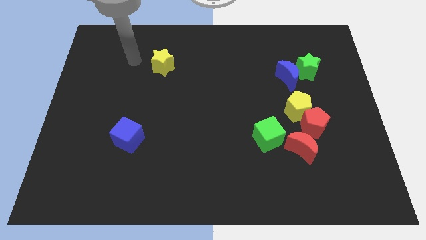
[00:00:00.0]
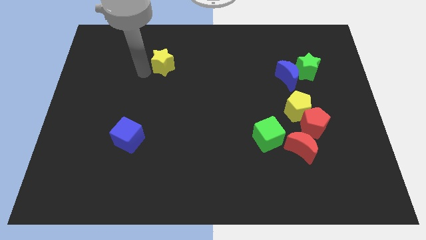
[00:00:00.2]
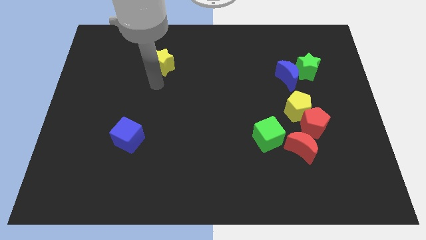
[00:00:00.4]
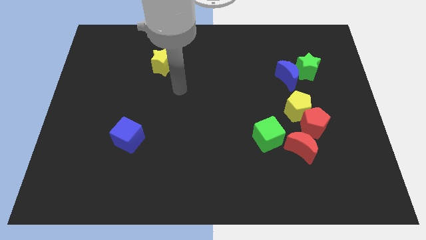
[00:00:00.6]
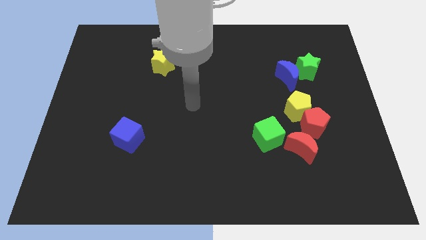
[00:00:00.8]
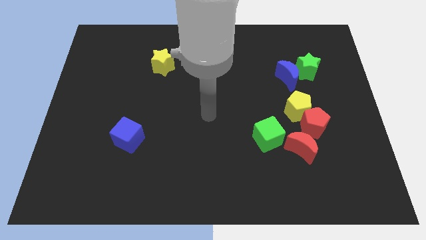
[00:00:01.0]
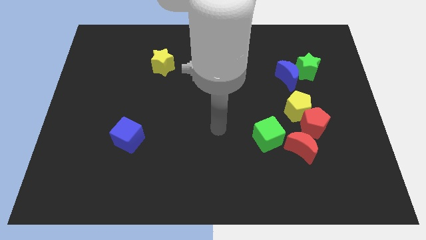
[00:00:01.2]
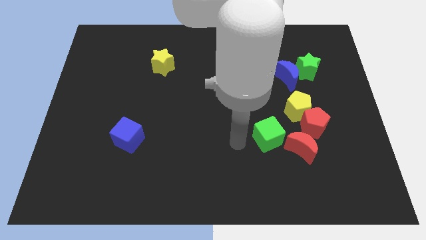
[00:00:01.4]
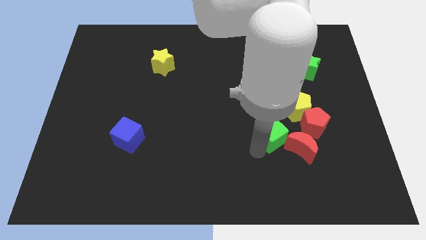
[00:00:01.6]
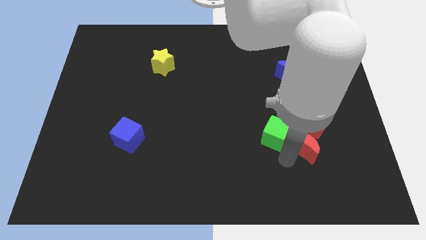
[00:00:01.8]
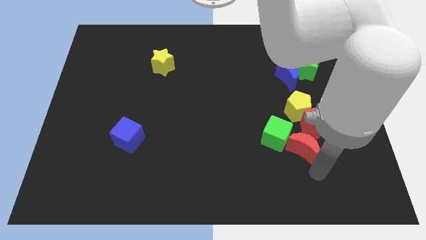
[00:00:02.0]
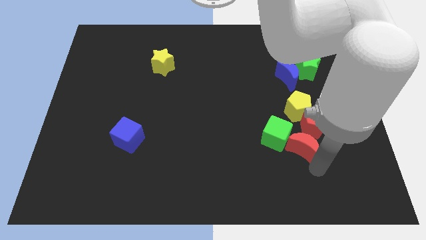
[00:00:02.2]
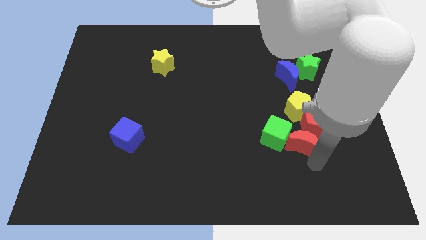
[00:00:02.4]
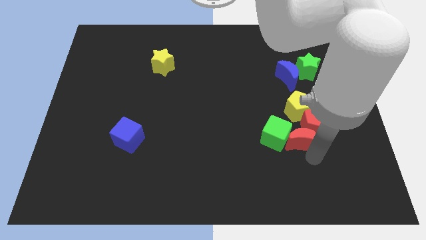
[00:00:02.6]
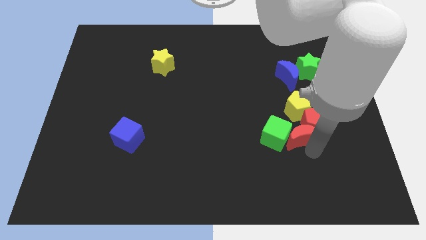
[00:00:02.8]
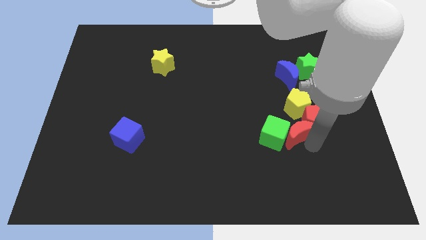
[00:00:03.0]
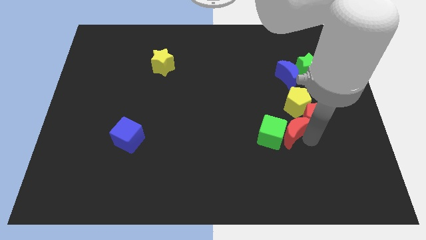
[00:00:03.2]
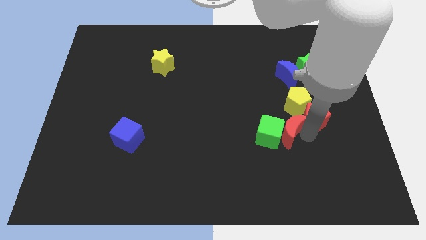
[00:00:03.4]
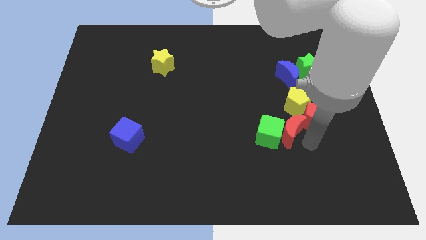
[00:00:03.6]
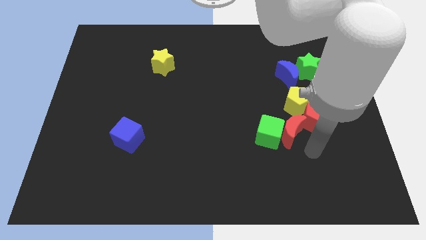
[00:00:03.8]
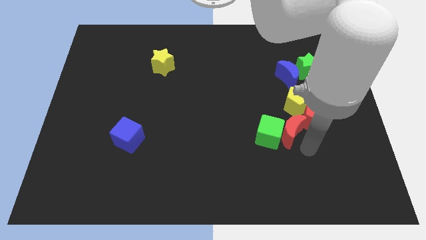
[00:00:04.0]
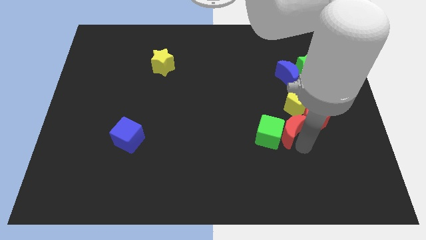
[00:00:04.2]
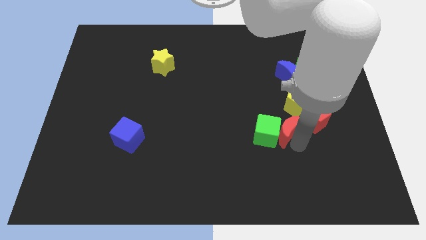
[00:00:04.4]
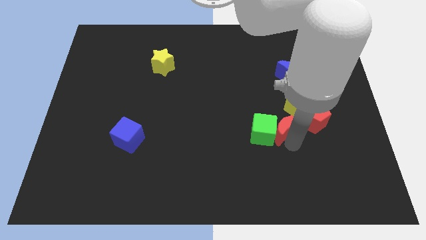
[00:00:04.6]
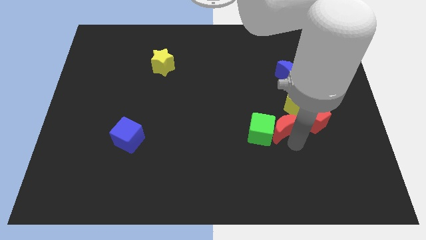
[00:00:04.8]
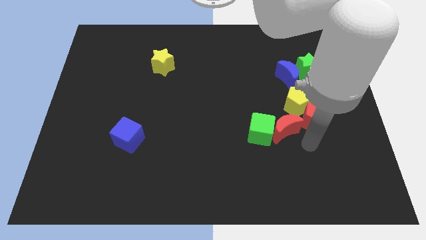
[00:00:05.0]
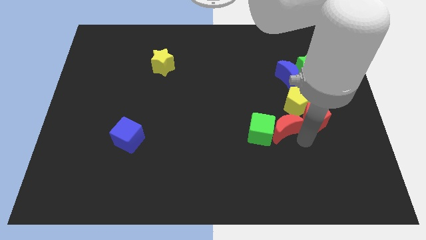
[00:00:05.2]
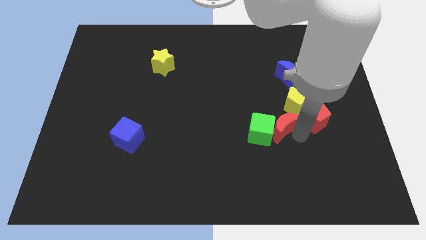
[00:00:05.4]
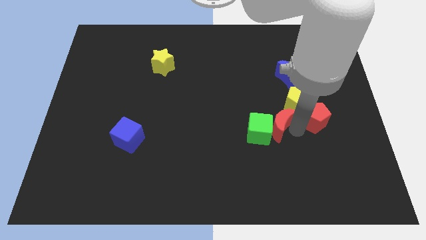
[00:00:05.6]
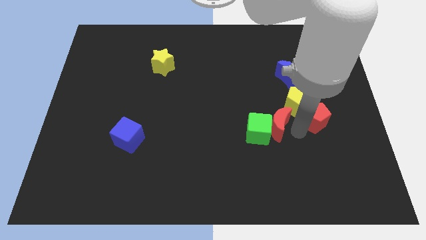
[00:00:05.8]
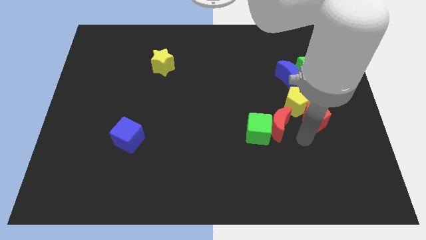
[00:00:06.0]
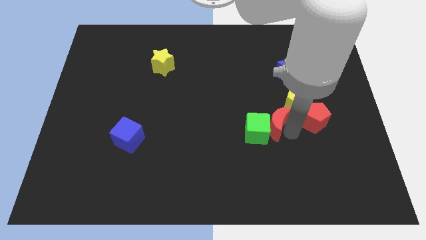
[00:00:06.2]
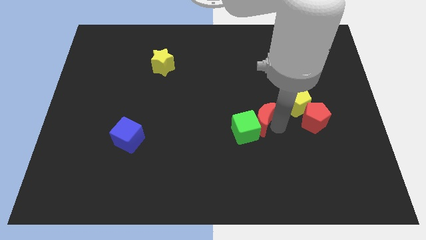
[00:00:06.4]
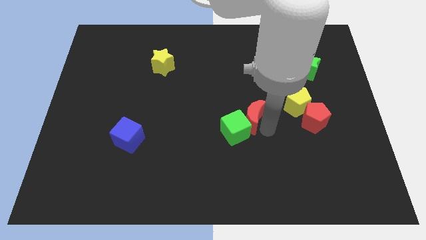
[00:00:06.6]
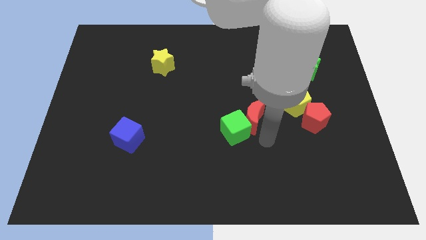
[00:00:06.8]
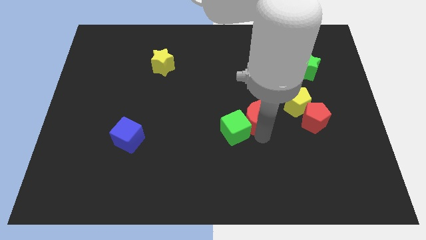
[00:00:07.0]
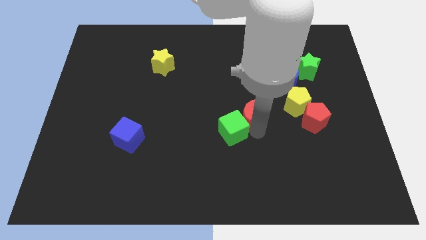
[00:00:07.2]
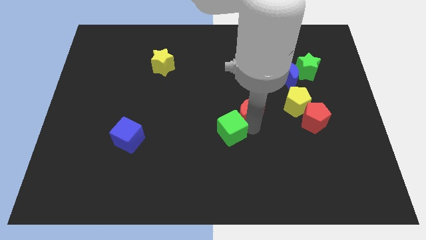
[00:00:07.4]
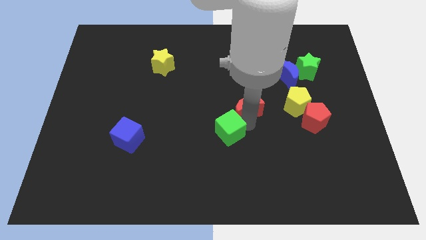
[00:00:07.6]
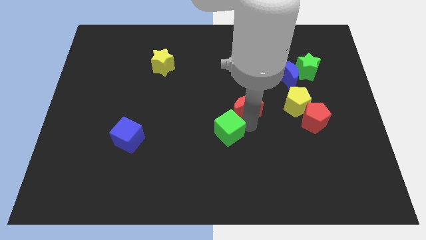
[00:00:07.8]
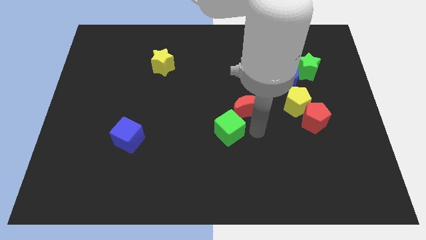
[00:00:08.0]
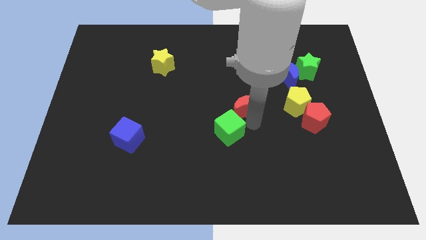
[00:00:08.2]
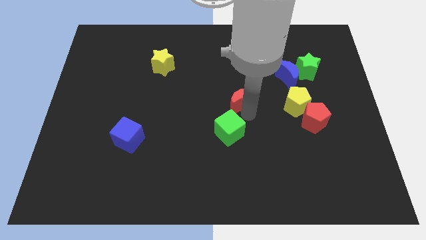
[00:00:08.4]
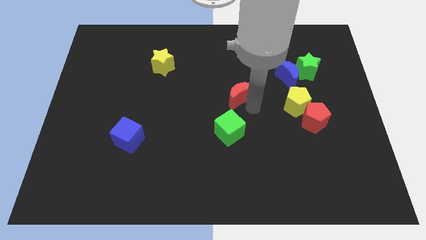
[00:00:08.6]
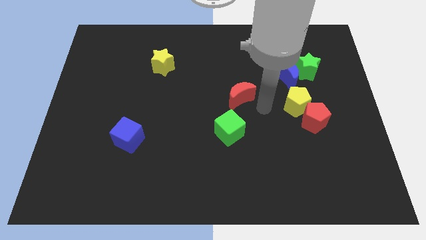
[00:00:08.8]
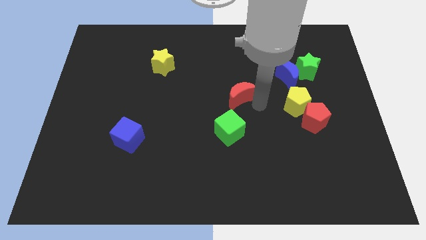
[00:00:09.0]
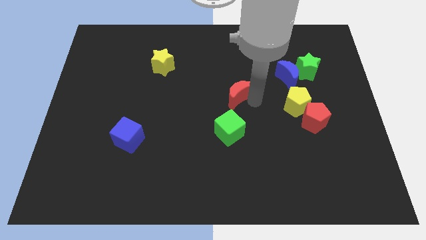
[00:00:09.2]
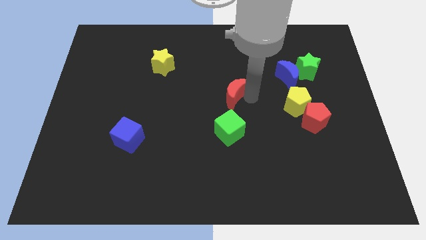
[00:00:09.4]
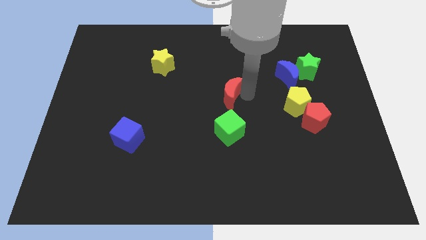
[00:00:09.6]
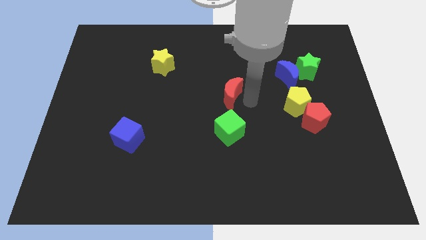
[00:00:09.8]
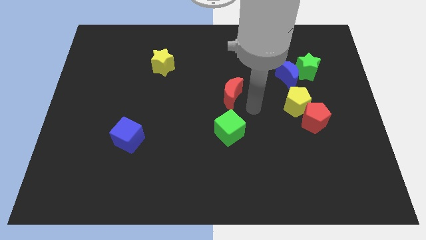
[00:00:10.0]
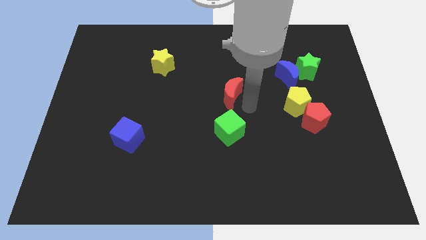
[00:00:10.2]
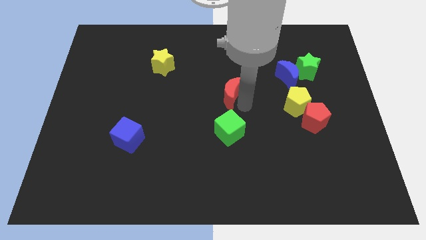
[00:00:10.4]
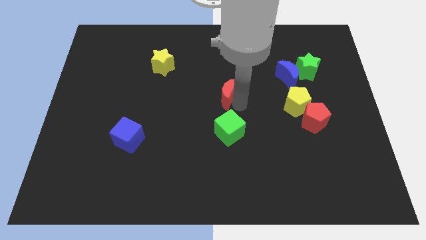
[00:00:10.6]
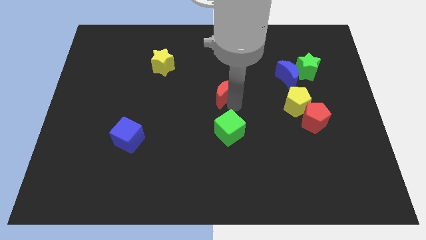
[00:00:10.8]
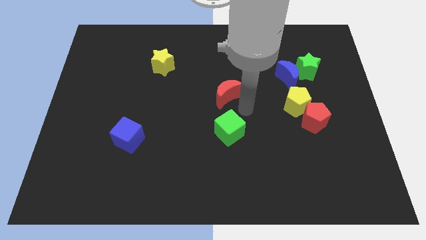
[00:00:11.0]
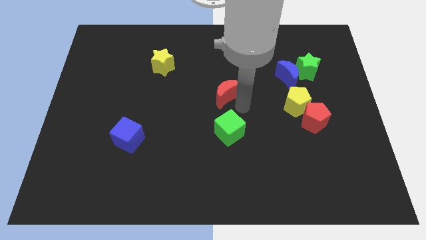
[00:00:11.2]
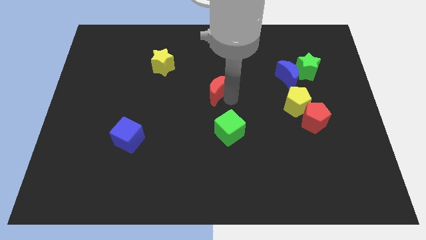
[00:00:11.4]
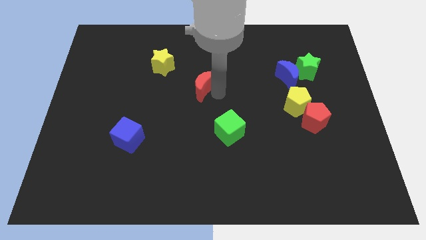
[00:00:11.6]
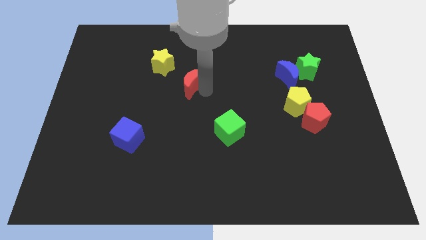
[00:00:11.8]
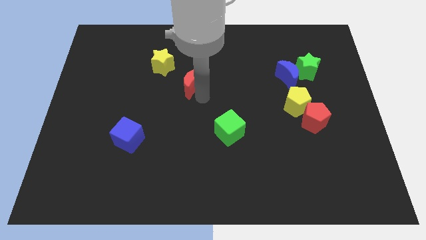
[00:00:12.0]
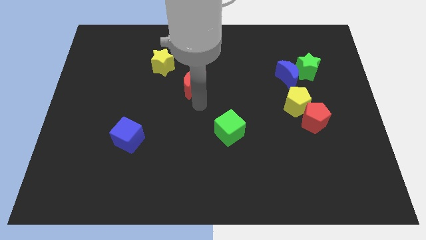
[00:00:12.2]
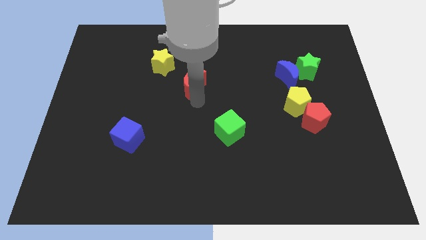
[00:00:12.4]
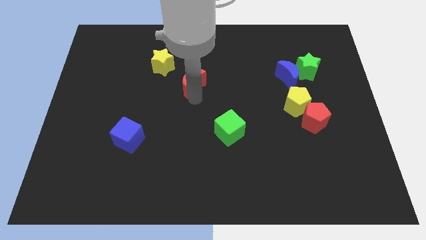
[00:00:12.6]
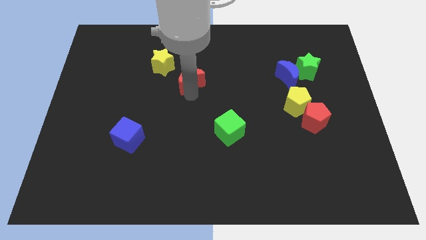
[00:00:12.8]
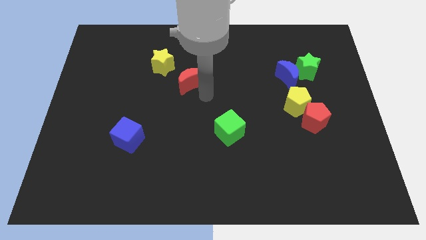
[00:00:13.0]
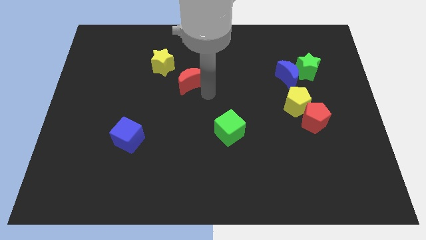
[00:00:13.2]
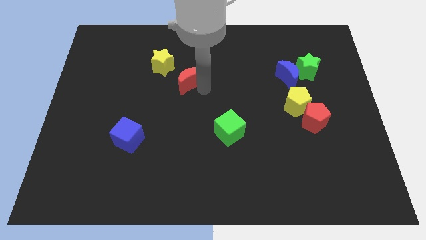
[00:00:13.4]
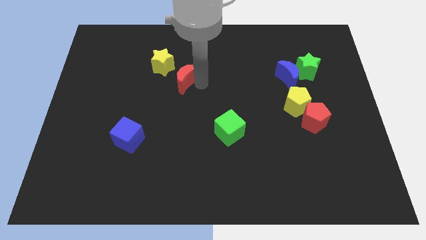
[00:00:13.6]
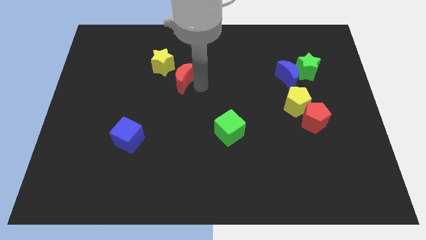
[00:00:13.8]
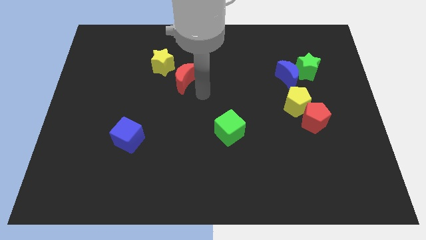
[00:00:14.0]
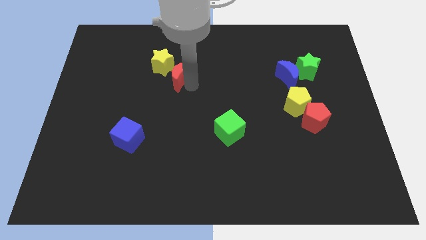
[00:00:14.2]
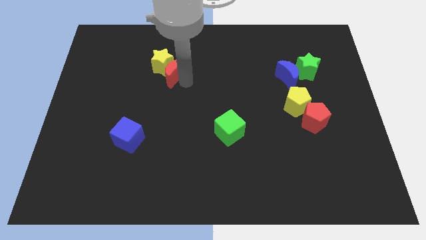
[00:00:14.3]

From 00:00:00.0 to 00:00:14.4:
push the red moon to the yellow star
